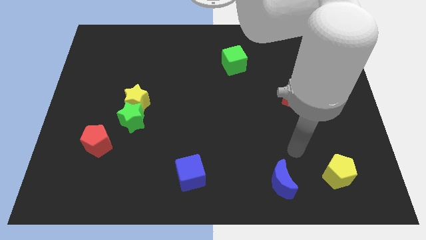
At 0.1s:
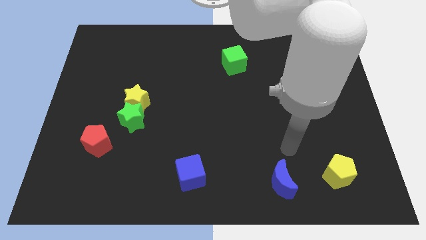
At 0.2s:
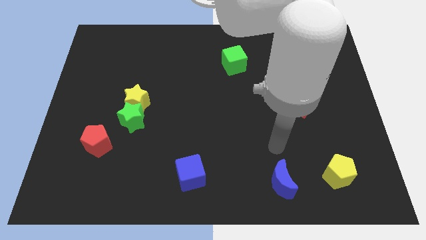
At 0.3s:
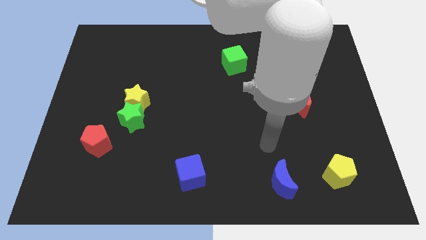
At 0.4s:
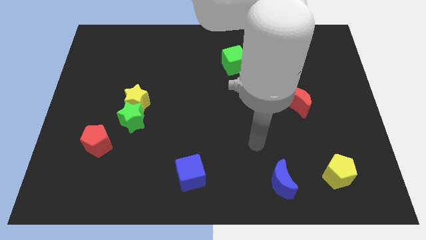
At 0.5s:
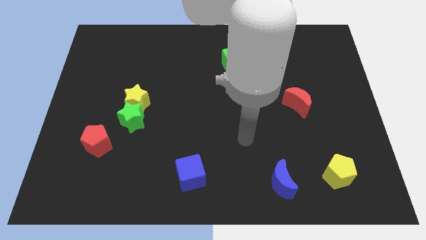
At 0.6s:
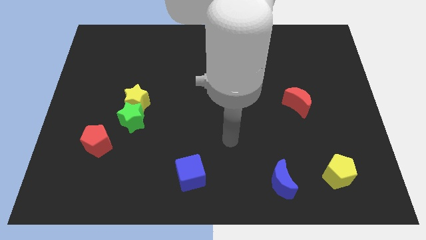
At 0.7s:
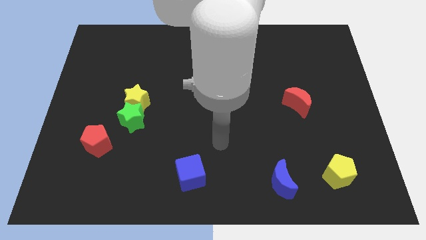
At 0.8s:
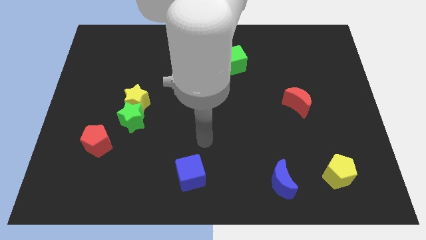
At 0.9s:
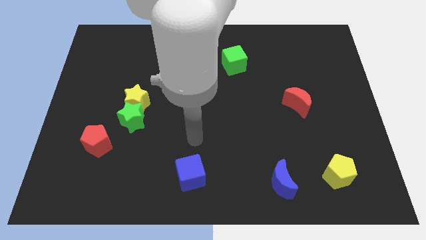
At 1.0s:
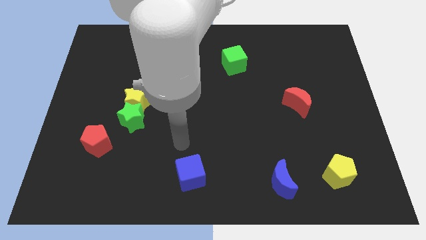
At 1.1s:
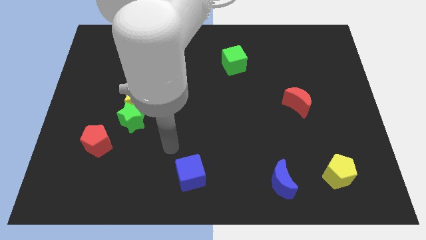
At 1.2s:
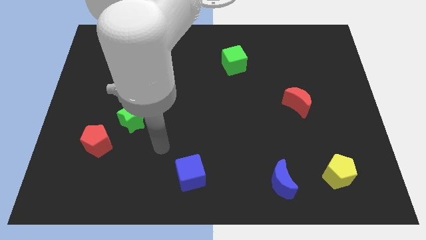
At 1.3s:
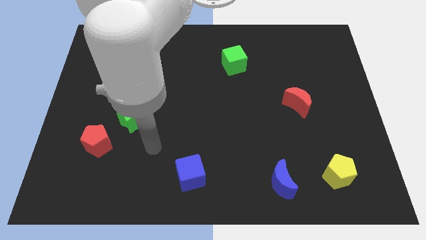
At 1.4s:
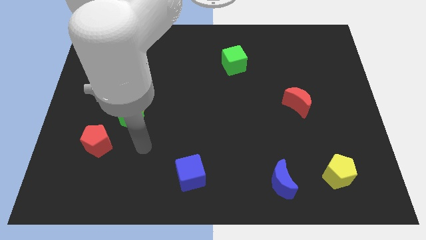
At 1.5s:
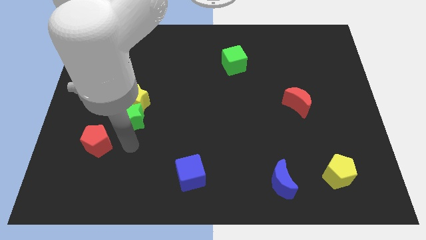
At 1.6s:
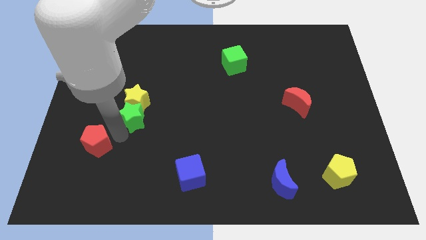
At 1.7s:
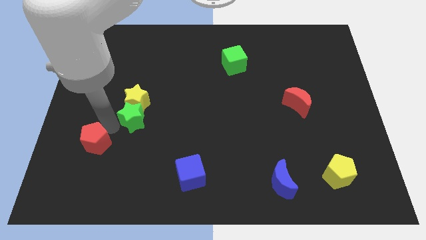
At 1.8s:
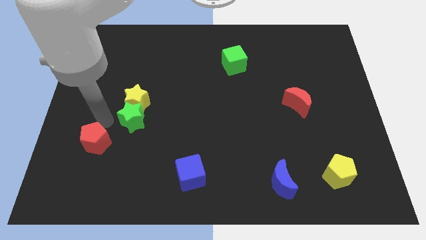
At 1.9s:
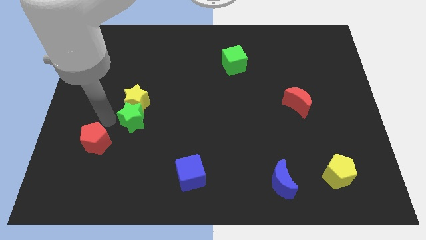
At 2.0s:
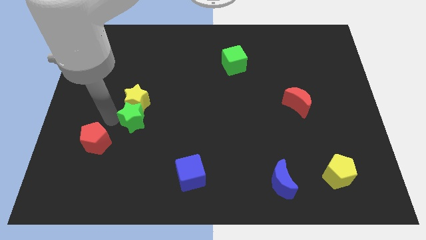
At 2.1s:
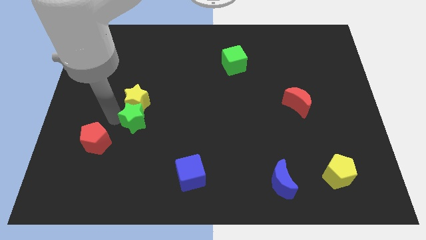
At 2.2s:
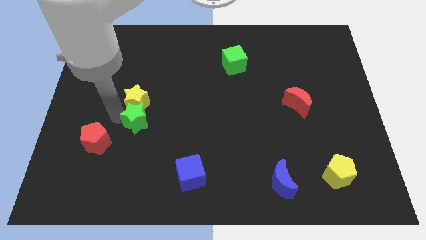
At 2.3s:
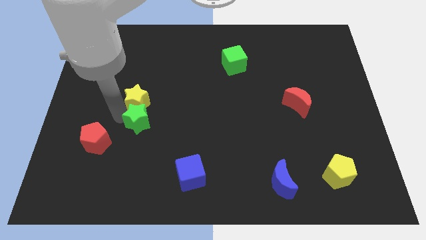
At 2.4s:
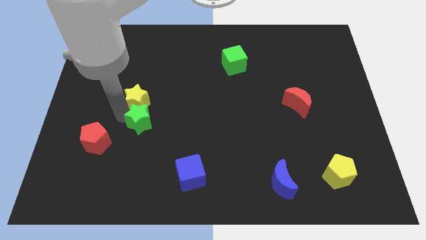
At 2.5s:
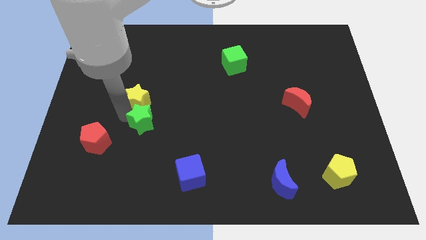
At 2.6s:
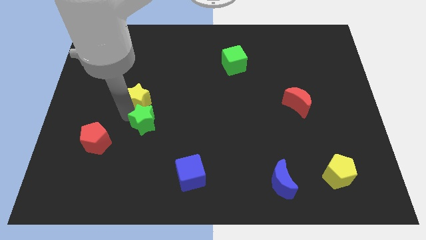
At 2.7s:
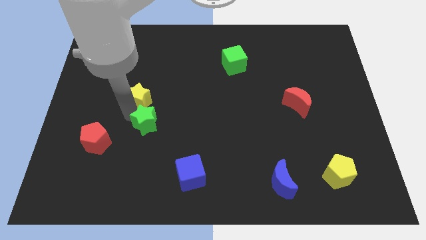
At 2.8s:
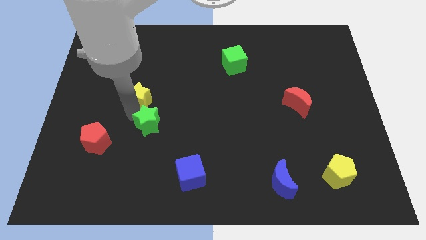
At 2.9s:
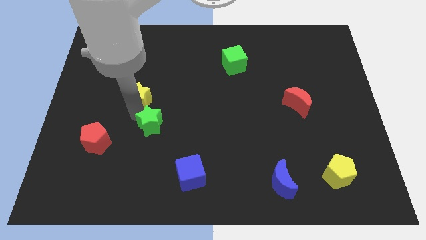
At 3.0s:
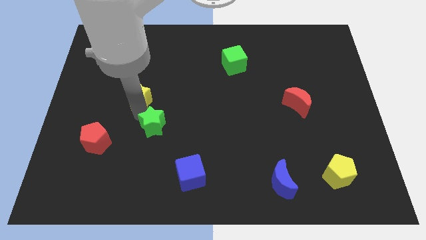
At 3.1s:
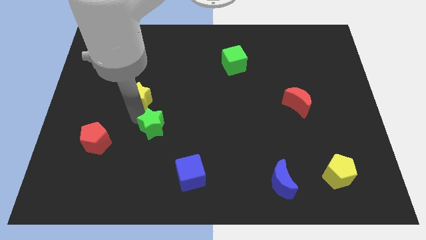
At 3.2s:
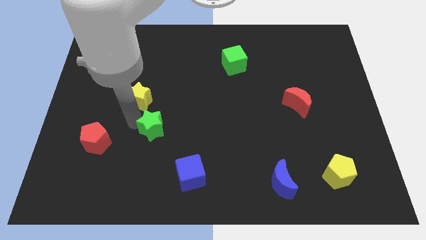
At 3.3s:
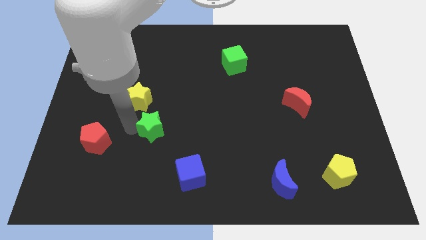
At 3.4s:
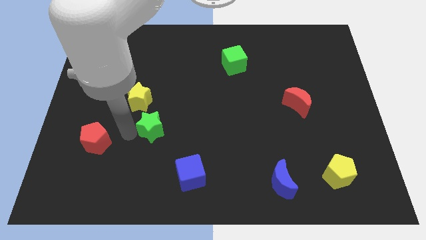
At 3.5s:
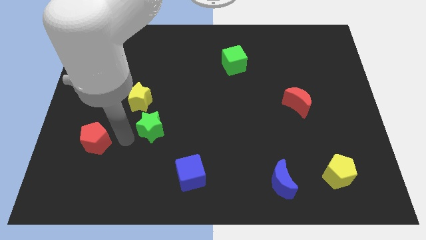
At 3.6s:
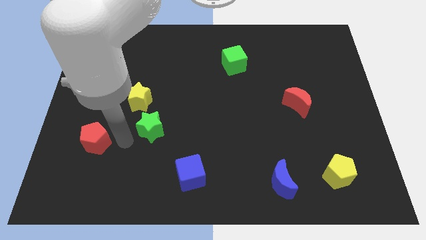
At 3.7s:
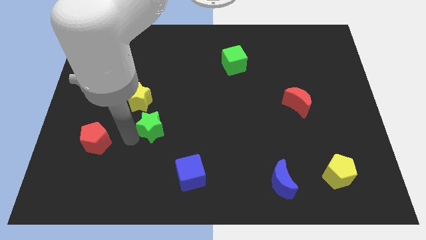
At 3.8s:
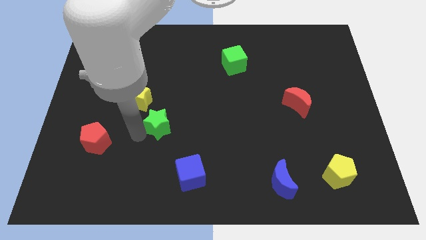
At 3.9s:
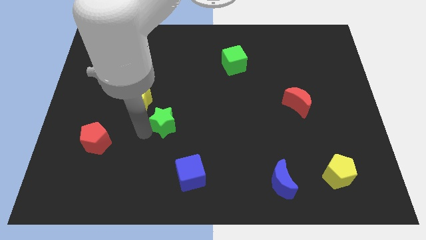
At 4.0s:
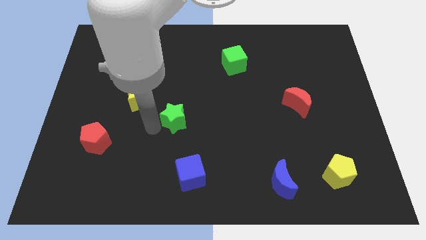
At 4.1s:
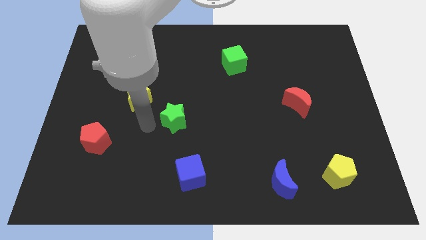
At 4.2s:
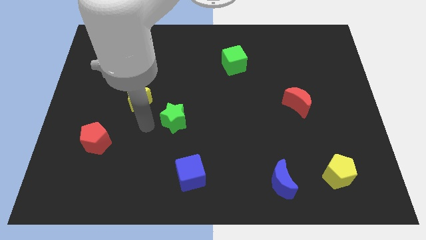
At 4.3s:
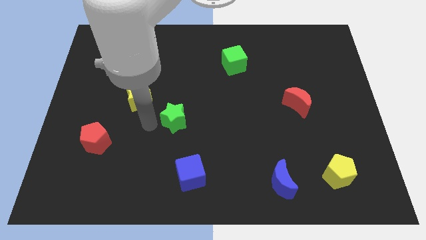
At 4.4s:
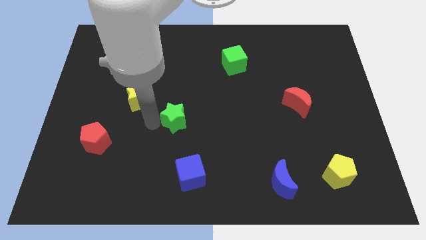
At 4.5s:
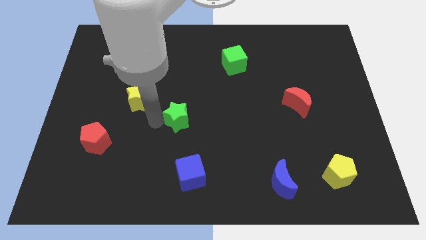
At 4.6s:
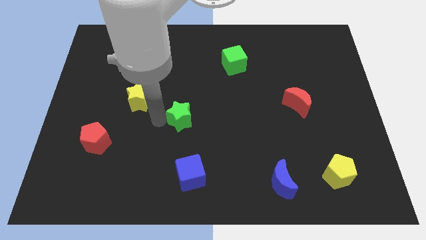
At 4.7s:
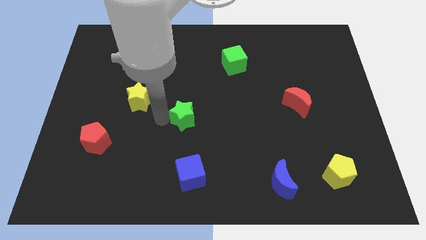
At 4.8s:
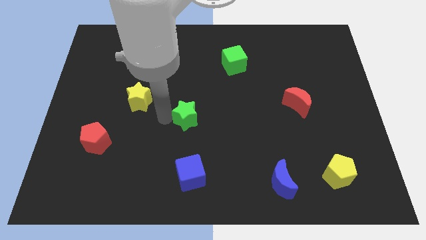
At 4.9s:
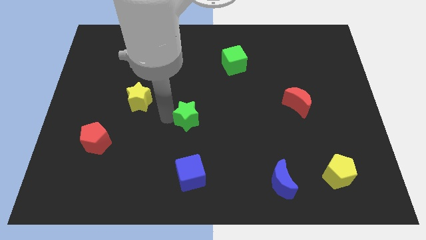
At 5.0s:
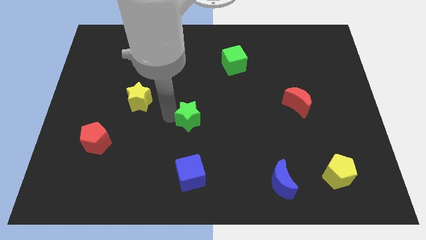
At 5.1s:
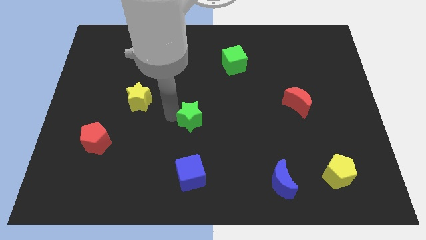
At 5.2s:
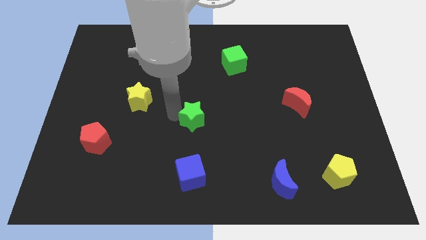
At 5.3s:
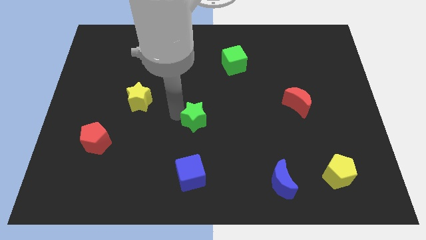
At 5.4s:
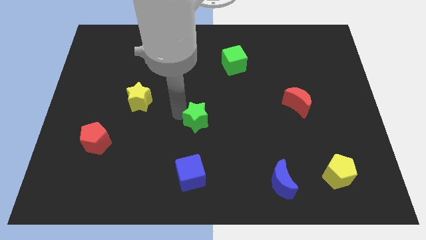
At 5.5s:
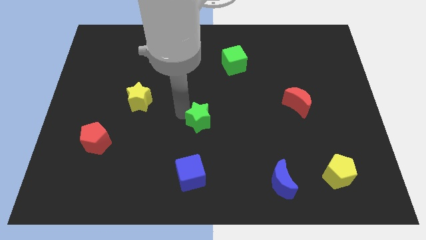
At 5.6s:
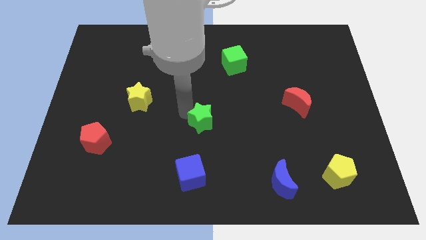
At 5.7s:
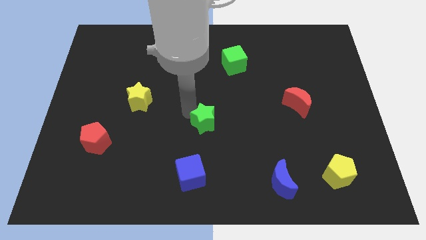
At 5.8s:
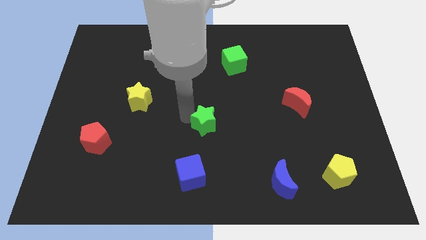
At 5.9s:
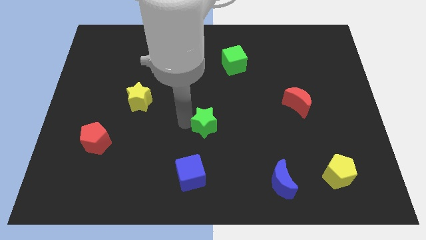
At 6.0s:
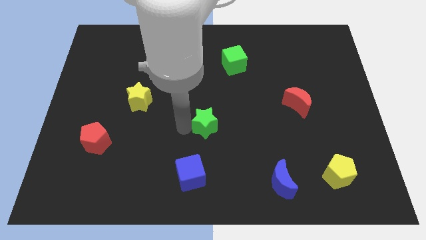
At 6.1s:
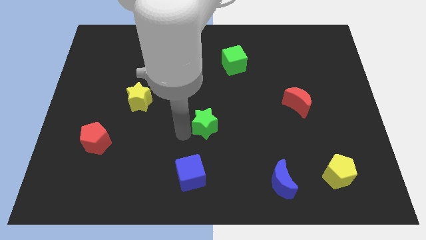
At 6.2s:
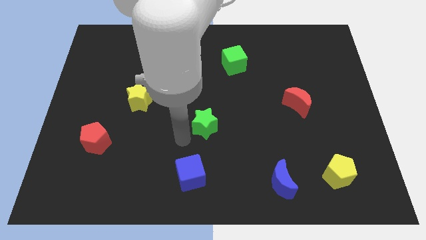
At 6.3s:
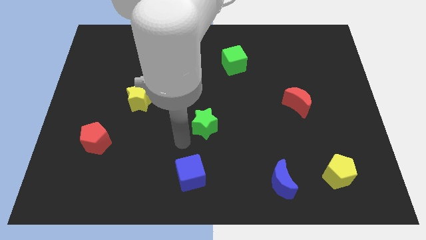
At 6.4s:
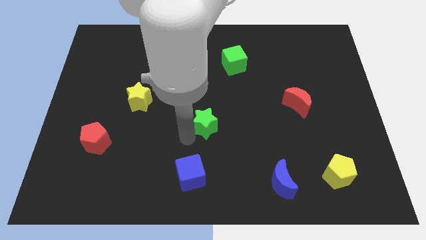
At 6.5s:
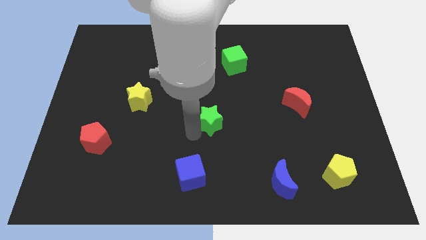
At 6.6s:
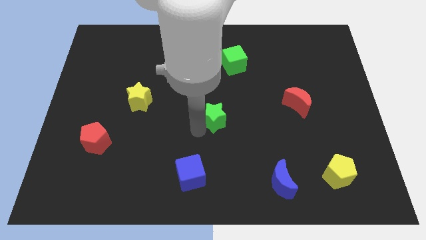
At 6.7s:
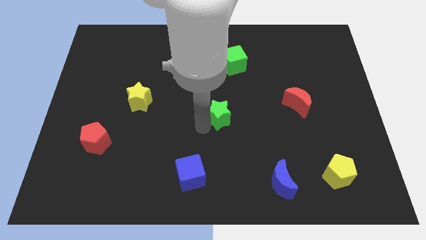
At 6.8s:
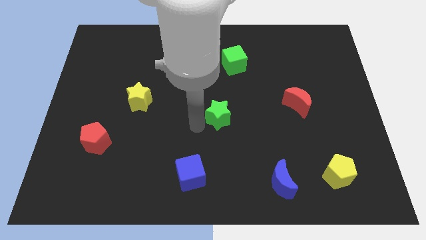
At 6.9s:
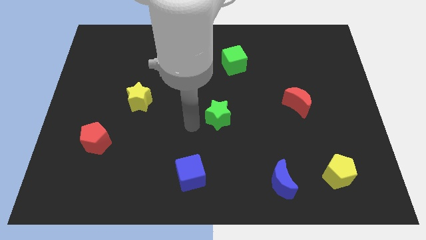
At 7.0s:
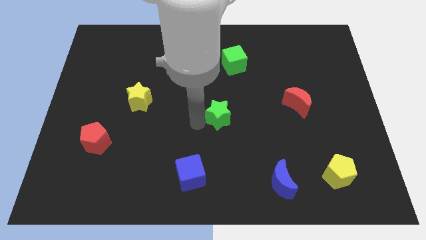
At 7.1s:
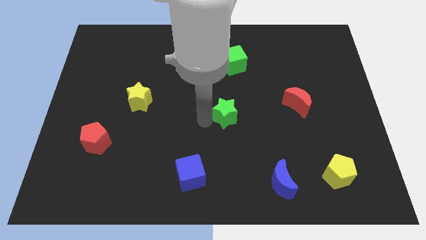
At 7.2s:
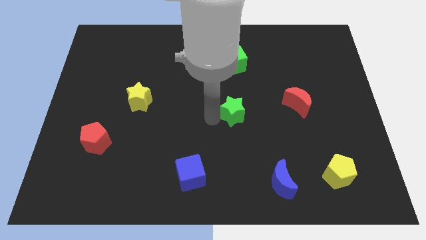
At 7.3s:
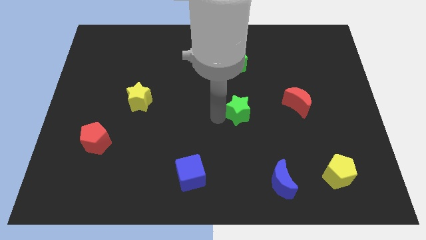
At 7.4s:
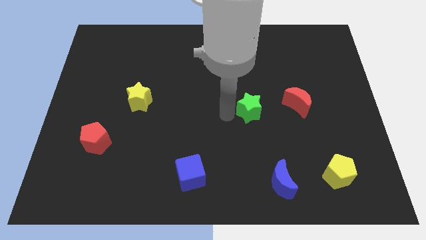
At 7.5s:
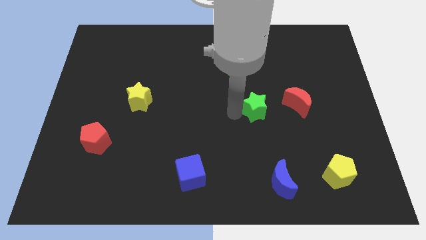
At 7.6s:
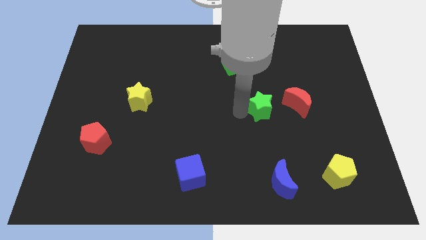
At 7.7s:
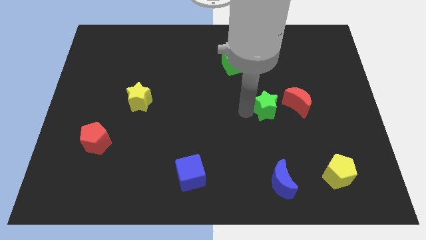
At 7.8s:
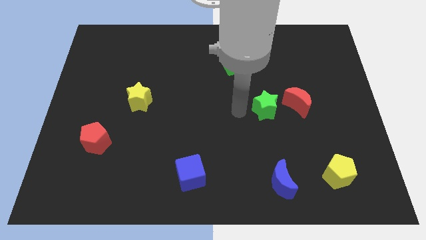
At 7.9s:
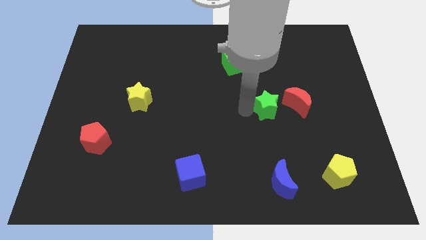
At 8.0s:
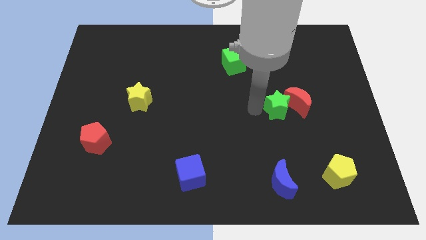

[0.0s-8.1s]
push the green star to the red moon

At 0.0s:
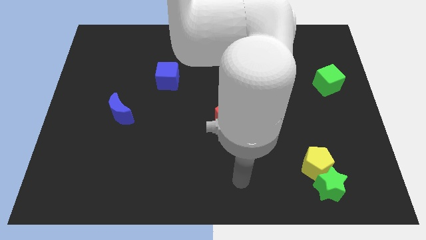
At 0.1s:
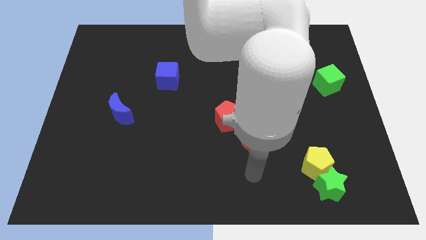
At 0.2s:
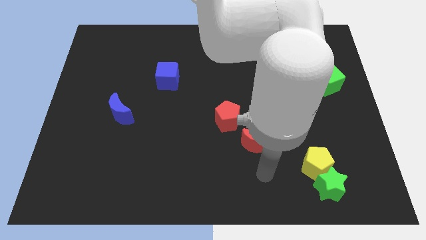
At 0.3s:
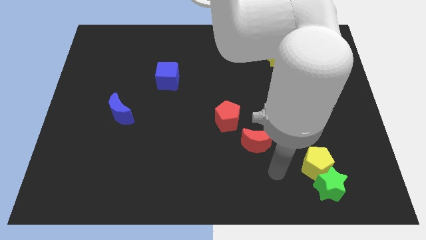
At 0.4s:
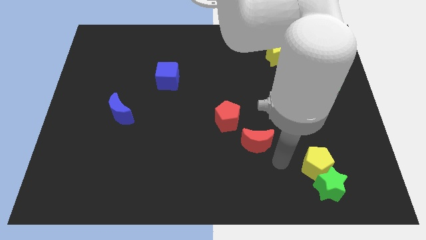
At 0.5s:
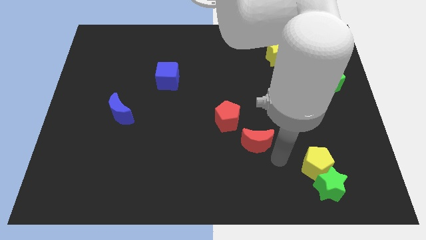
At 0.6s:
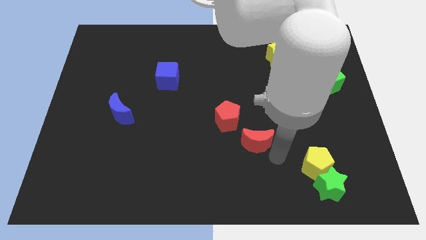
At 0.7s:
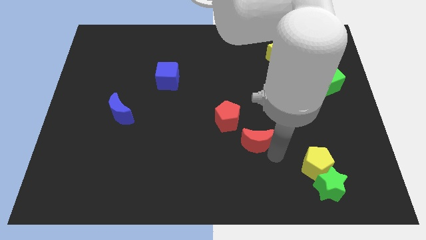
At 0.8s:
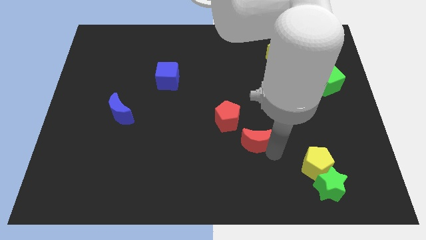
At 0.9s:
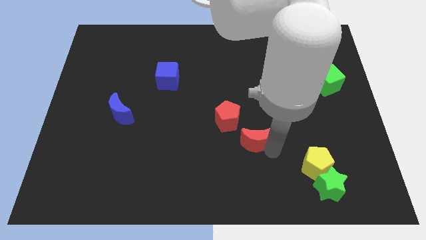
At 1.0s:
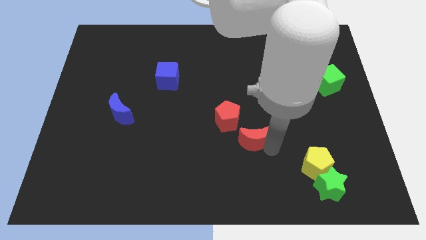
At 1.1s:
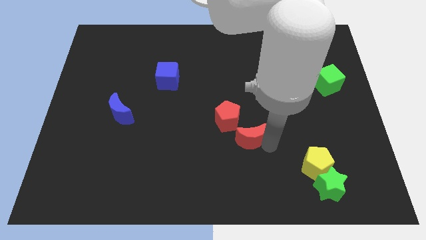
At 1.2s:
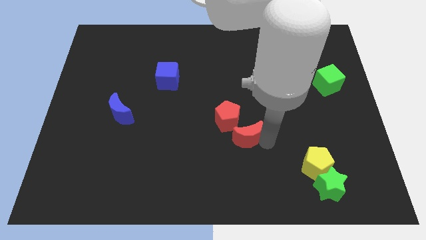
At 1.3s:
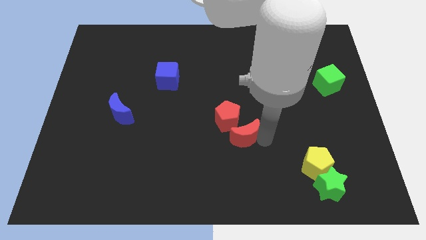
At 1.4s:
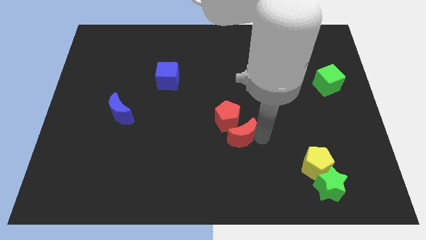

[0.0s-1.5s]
move the red moon close to the red pentagon
